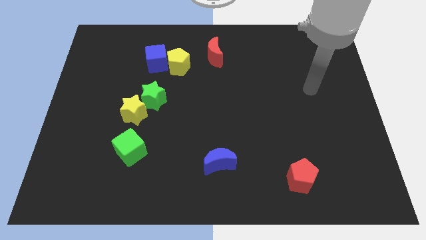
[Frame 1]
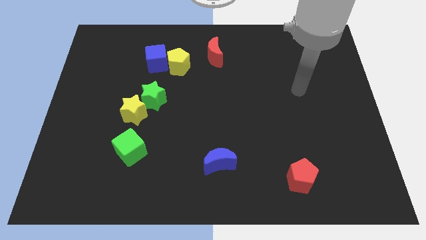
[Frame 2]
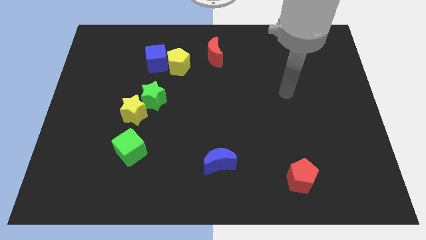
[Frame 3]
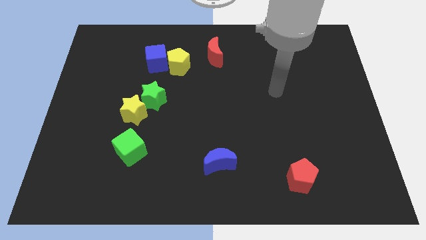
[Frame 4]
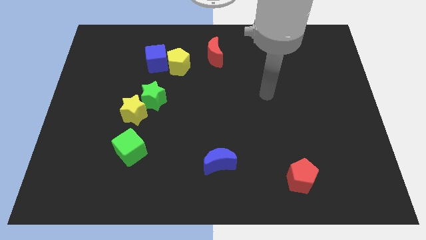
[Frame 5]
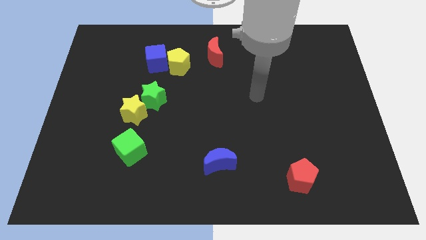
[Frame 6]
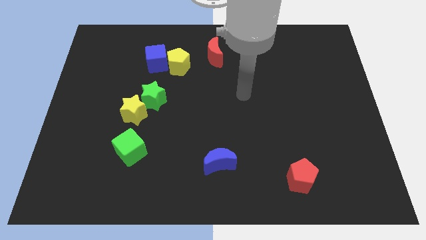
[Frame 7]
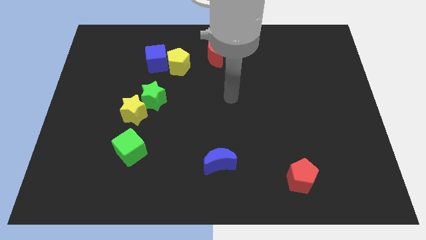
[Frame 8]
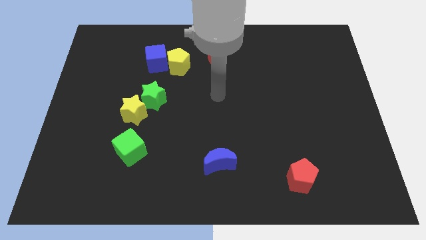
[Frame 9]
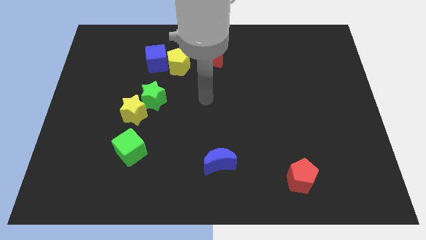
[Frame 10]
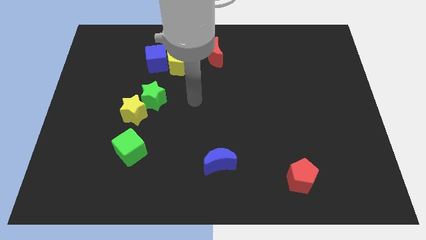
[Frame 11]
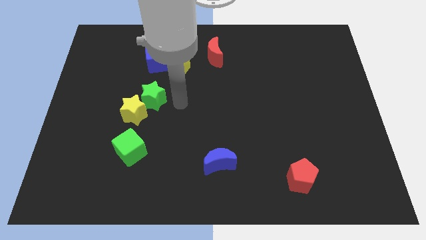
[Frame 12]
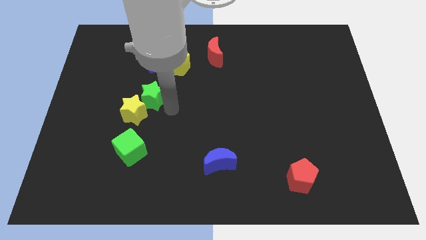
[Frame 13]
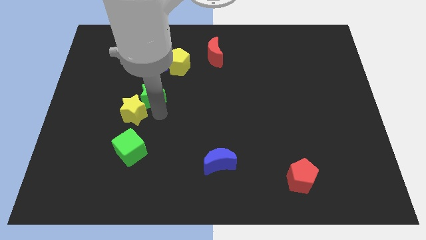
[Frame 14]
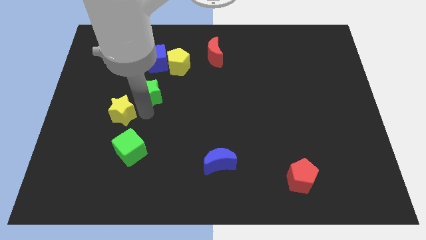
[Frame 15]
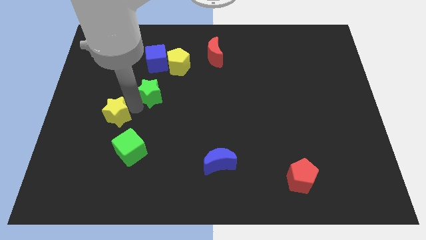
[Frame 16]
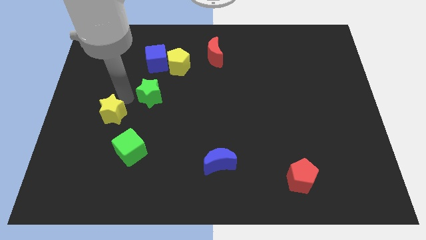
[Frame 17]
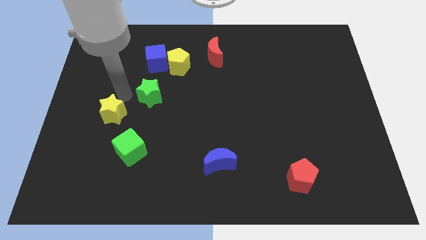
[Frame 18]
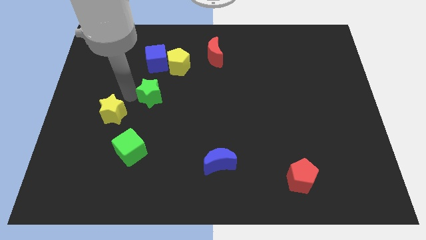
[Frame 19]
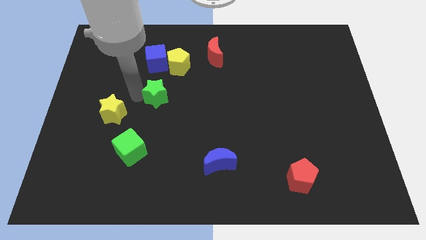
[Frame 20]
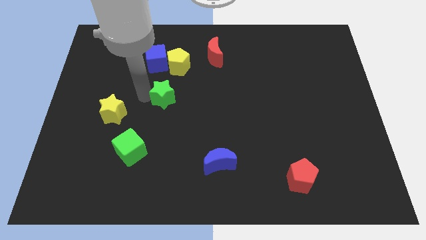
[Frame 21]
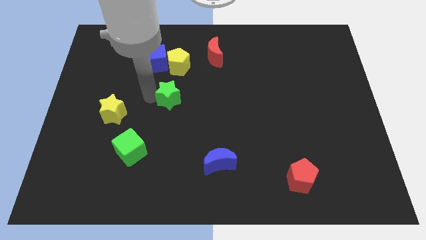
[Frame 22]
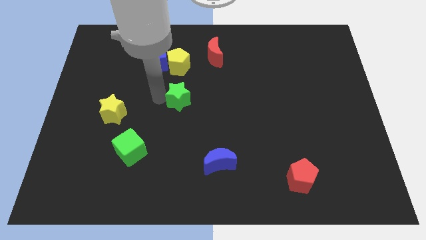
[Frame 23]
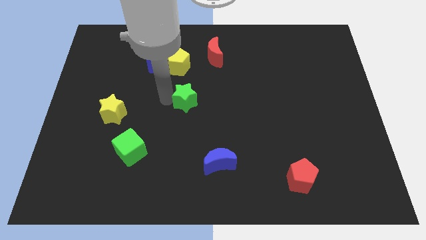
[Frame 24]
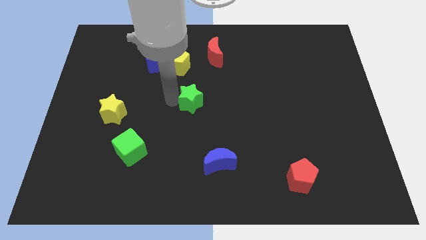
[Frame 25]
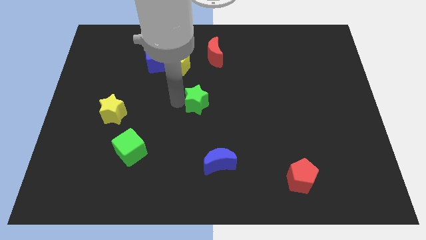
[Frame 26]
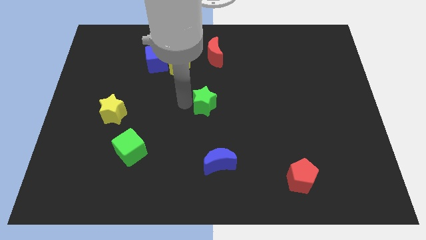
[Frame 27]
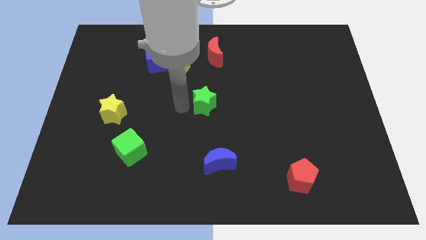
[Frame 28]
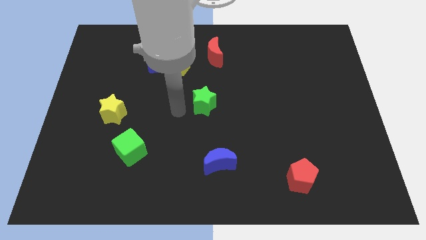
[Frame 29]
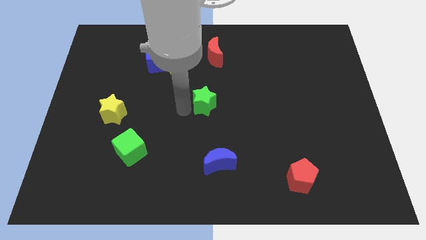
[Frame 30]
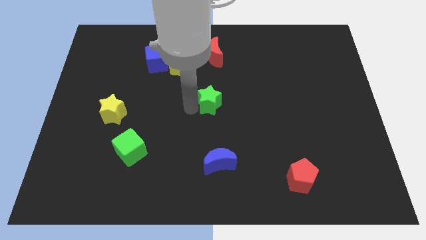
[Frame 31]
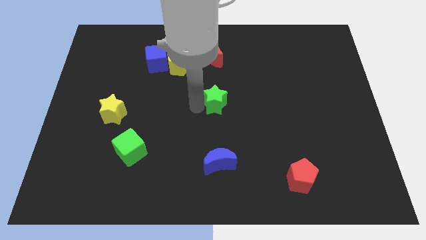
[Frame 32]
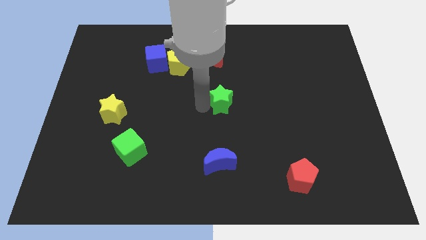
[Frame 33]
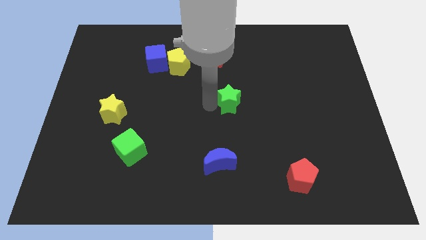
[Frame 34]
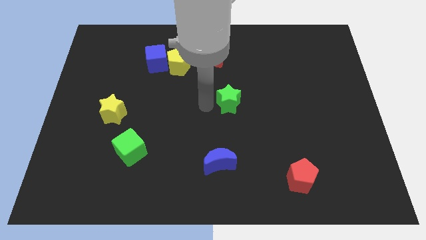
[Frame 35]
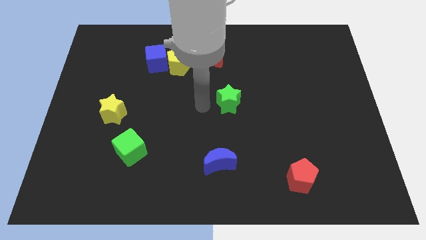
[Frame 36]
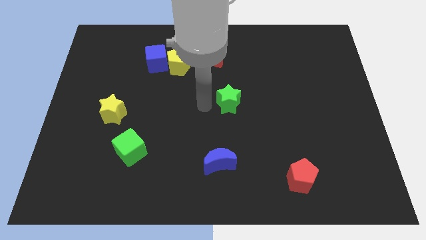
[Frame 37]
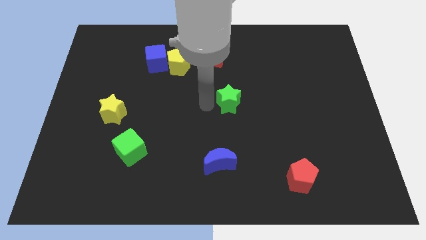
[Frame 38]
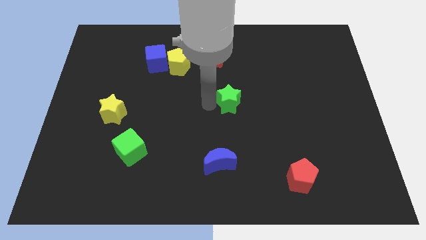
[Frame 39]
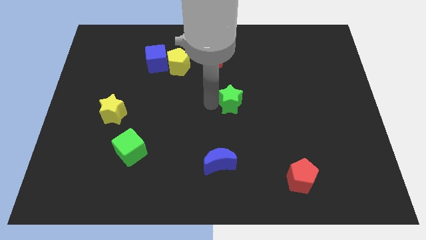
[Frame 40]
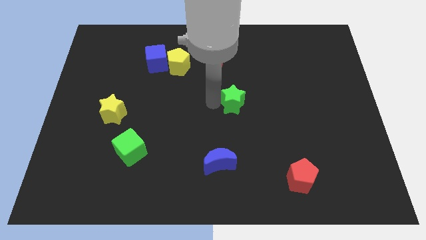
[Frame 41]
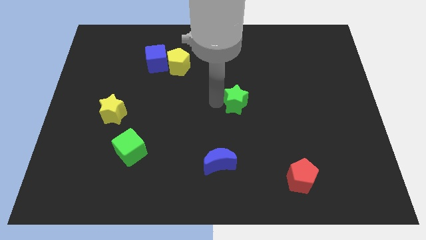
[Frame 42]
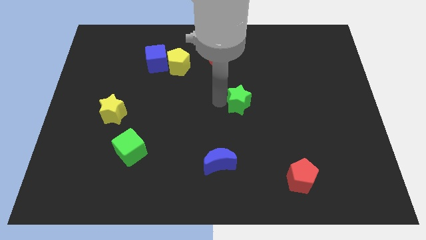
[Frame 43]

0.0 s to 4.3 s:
push the green star to the right

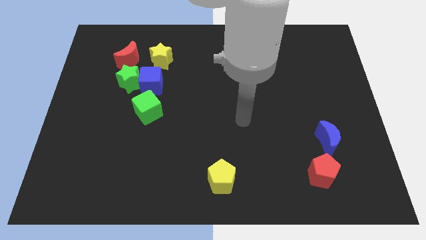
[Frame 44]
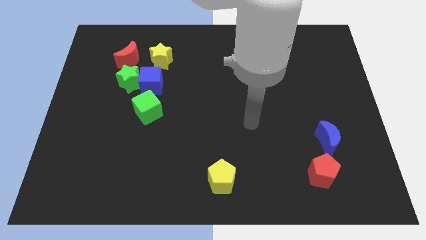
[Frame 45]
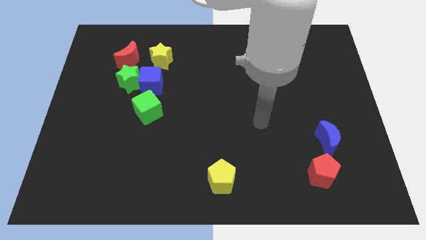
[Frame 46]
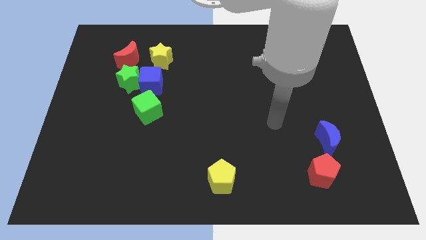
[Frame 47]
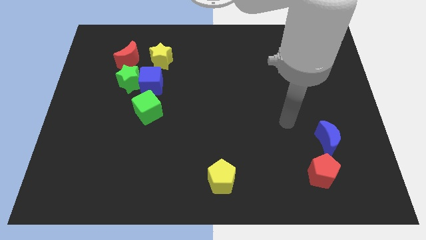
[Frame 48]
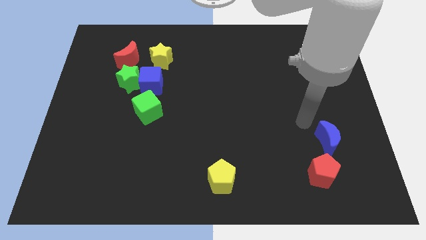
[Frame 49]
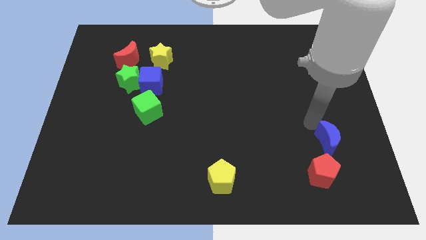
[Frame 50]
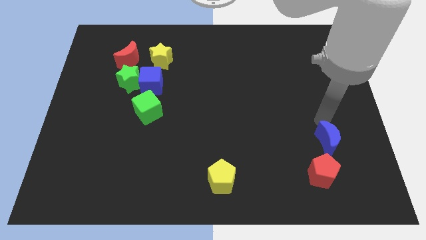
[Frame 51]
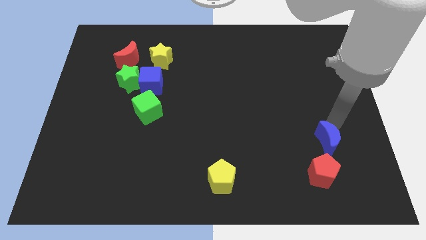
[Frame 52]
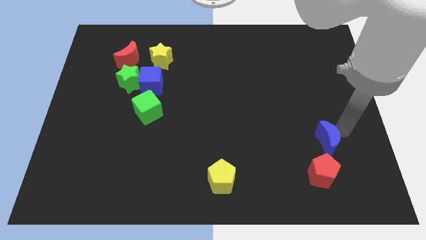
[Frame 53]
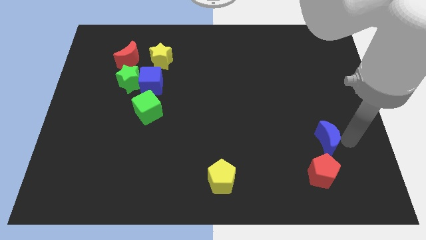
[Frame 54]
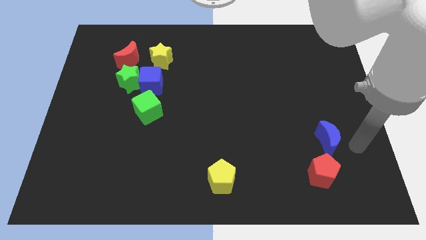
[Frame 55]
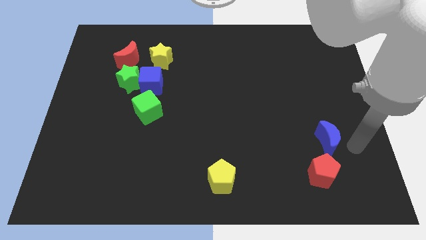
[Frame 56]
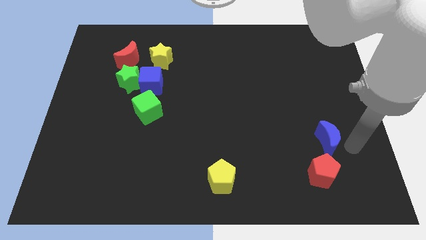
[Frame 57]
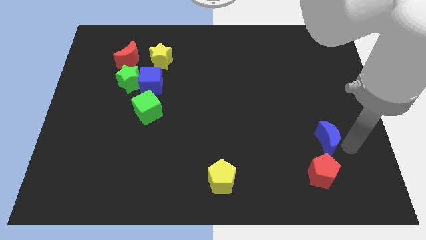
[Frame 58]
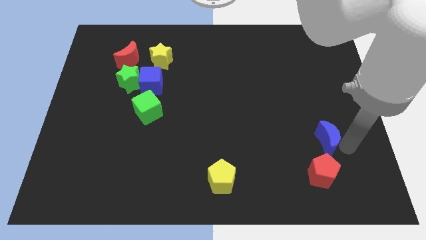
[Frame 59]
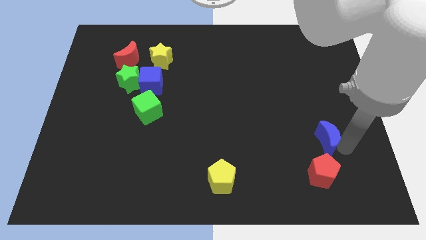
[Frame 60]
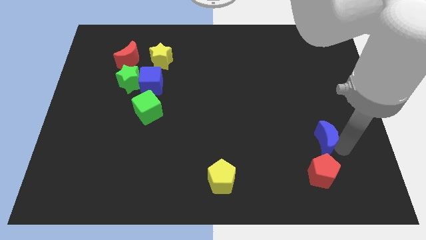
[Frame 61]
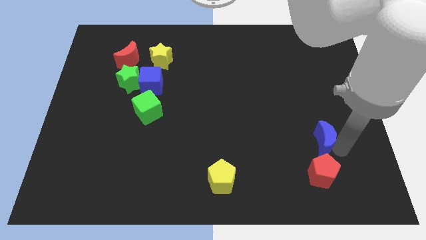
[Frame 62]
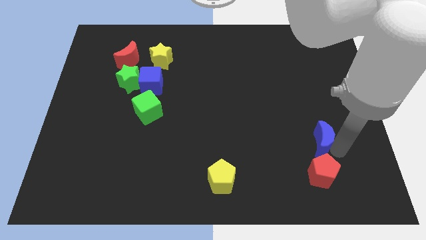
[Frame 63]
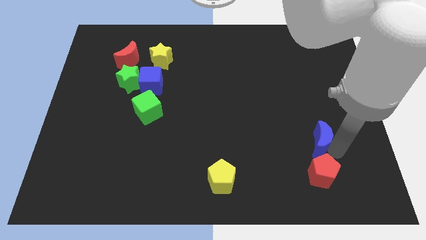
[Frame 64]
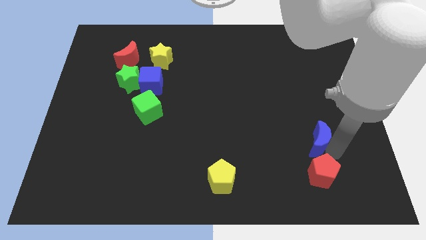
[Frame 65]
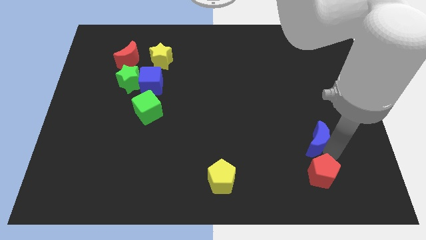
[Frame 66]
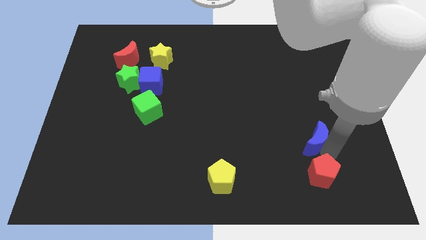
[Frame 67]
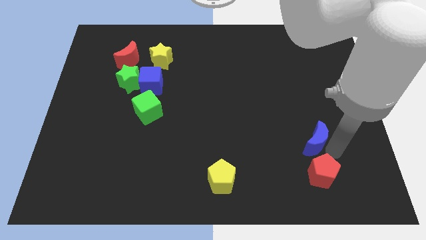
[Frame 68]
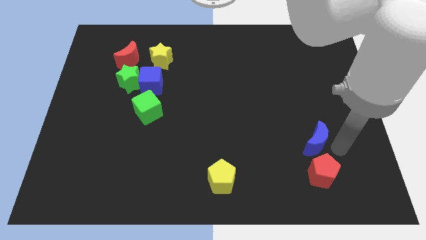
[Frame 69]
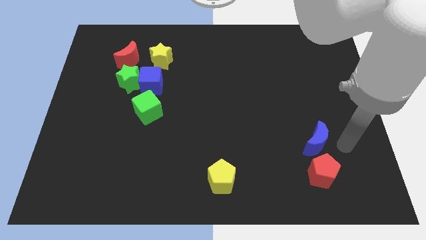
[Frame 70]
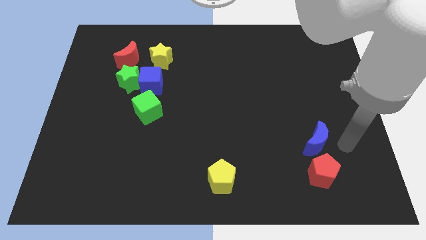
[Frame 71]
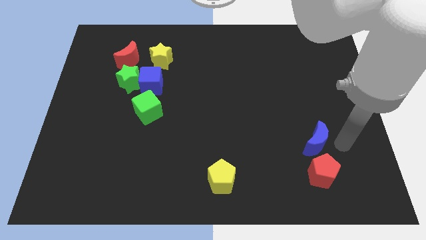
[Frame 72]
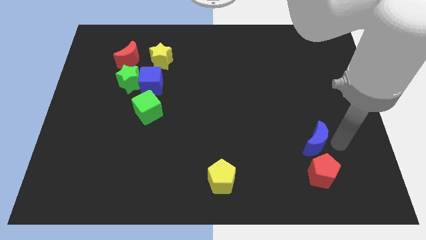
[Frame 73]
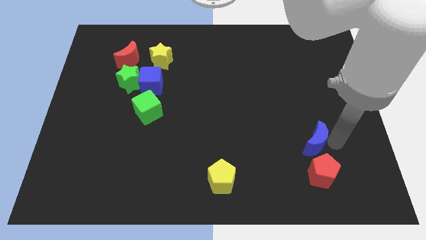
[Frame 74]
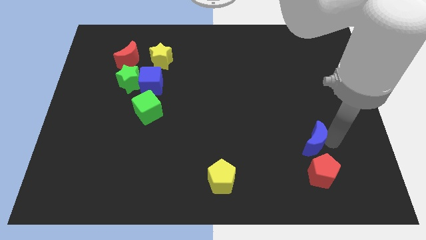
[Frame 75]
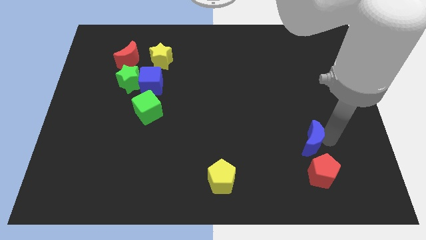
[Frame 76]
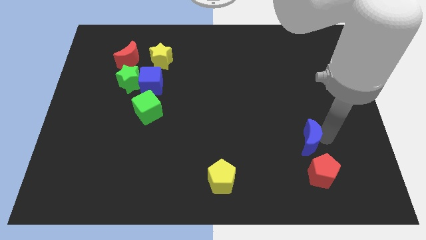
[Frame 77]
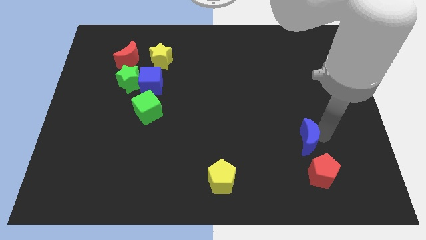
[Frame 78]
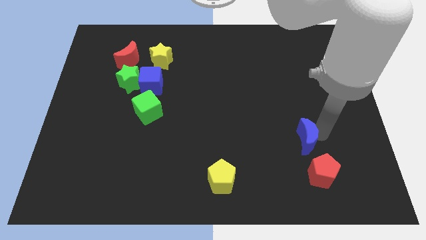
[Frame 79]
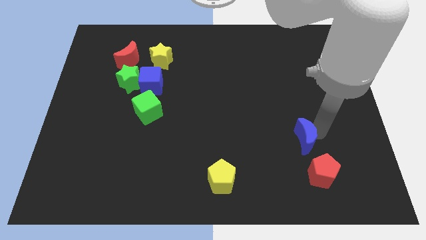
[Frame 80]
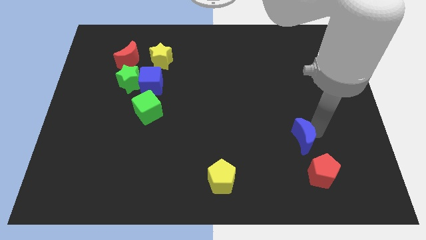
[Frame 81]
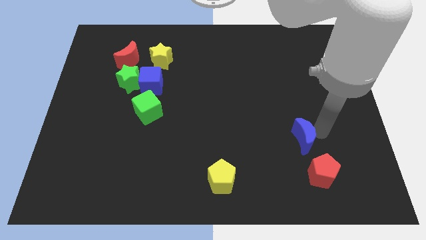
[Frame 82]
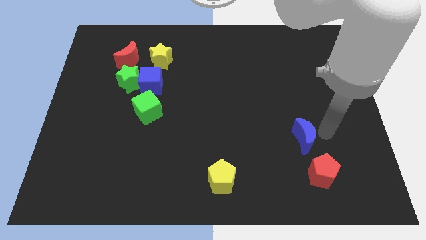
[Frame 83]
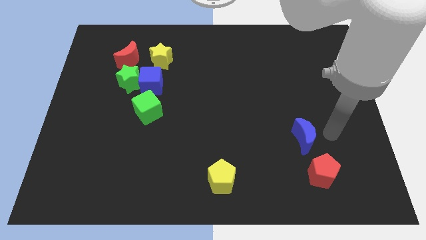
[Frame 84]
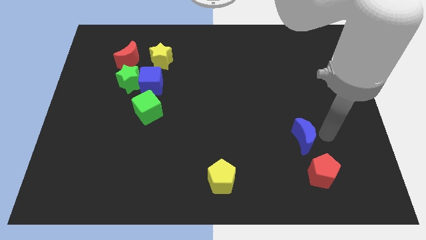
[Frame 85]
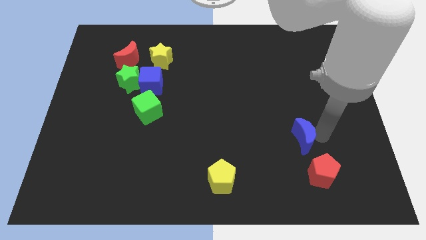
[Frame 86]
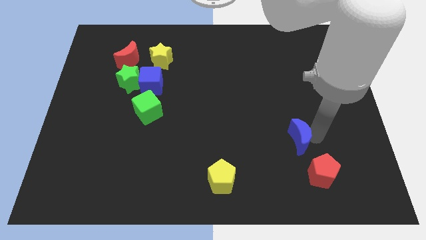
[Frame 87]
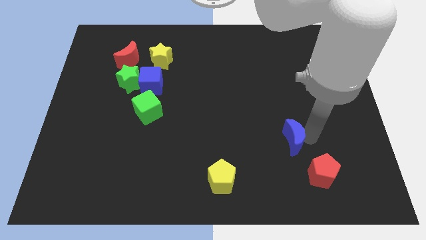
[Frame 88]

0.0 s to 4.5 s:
move the blue moon to the left somewhat
